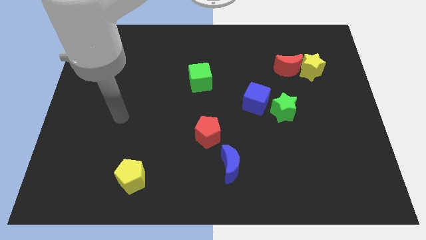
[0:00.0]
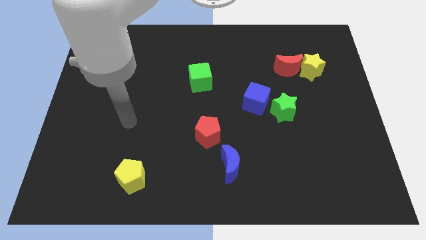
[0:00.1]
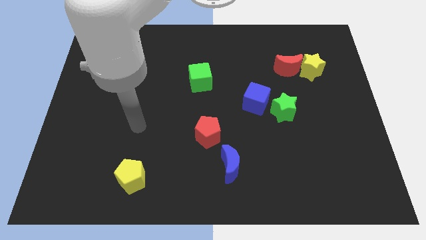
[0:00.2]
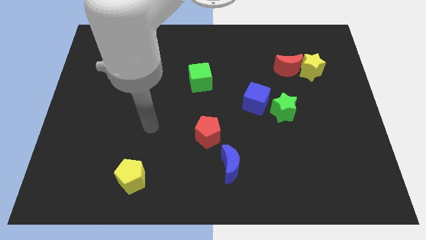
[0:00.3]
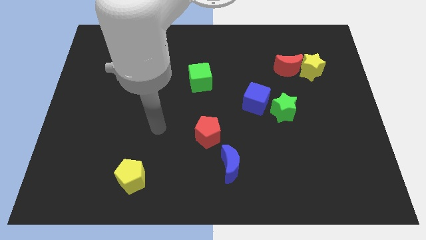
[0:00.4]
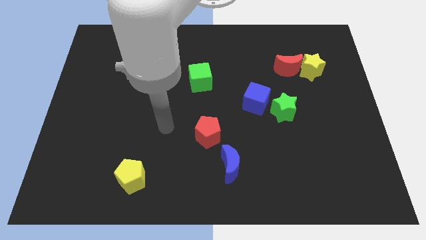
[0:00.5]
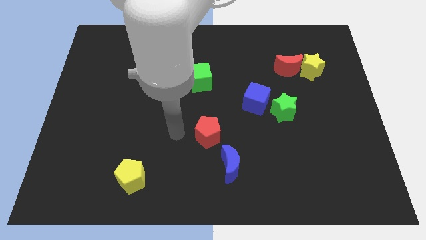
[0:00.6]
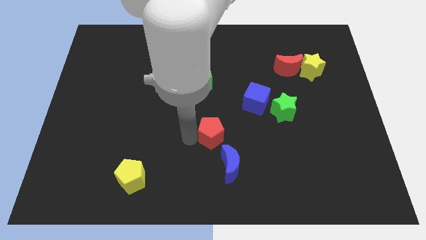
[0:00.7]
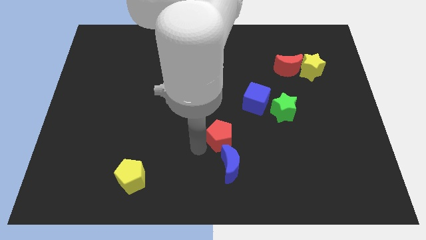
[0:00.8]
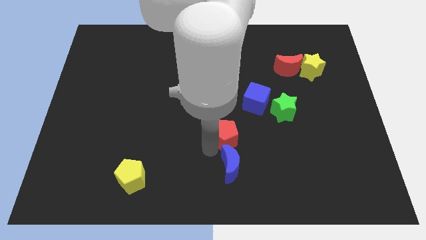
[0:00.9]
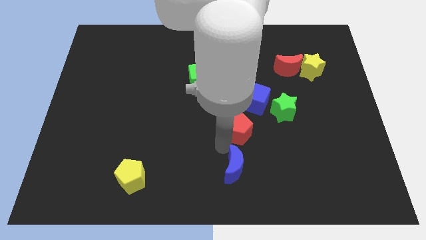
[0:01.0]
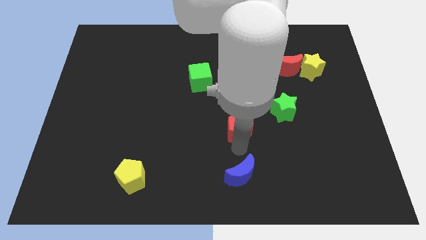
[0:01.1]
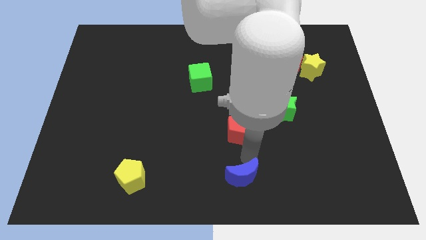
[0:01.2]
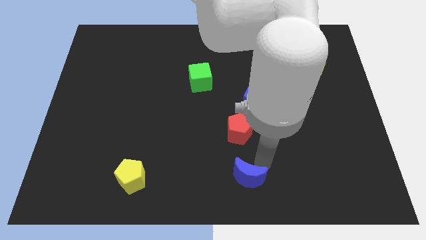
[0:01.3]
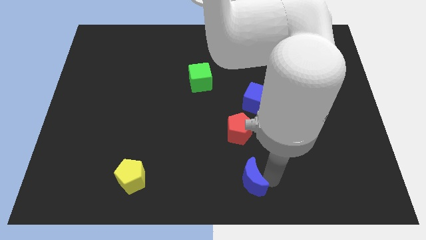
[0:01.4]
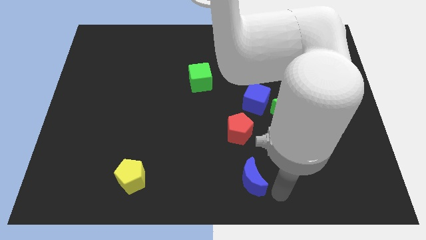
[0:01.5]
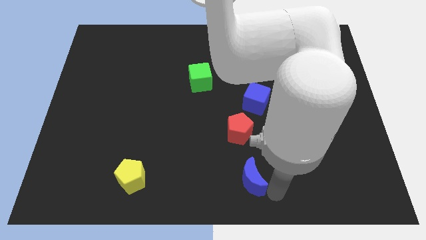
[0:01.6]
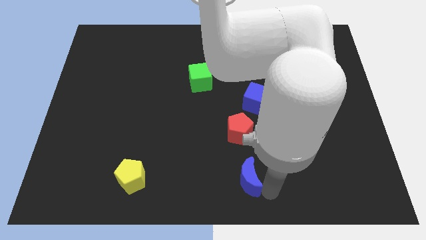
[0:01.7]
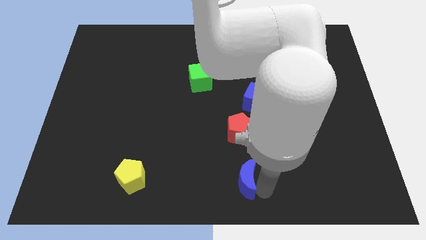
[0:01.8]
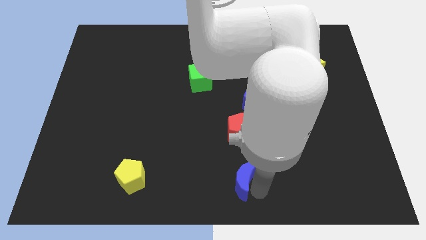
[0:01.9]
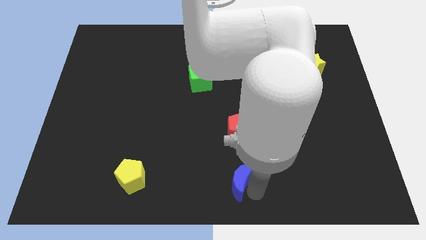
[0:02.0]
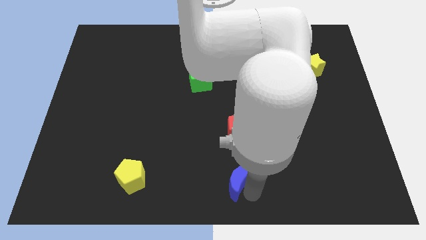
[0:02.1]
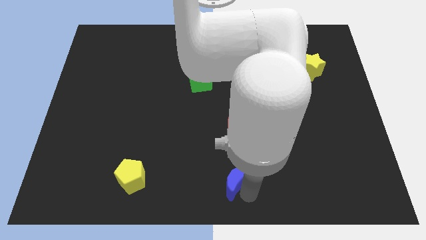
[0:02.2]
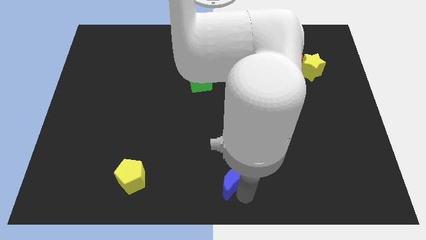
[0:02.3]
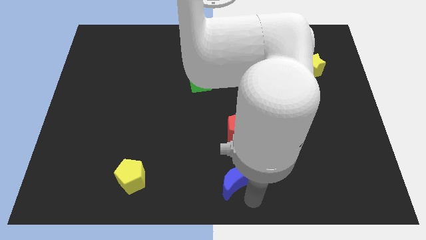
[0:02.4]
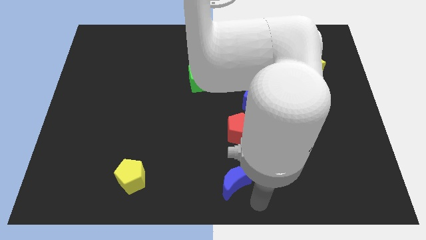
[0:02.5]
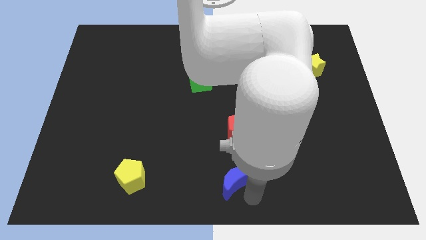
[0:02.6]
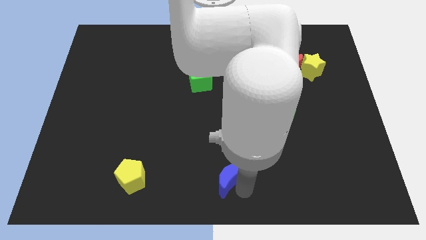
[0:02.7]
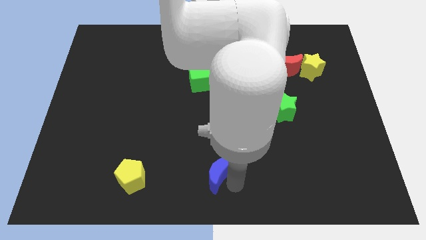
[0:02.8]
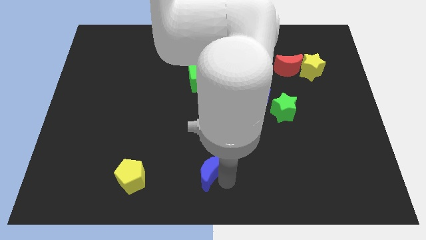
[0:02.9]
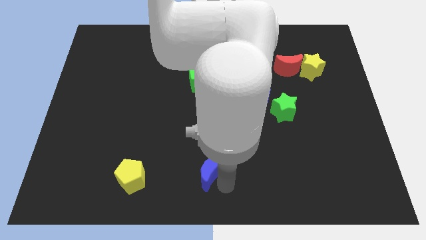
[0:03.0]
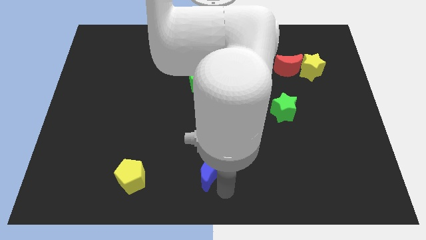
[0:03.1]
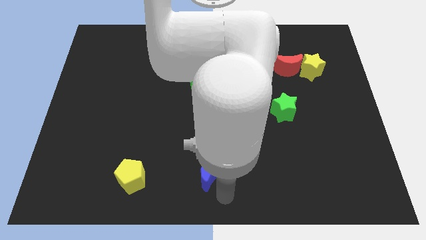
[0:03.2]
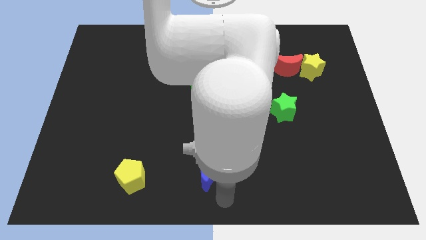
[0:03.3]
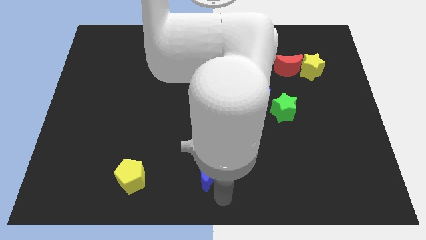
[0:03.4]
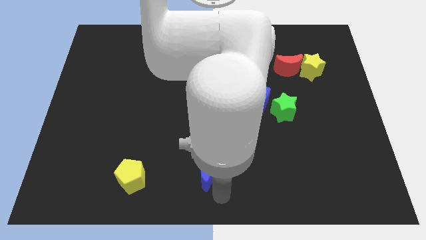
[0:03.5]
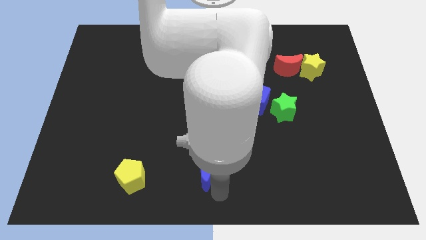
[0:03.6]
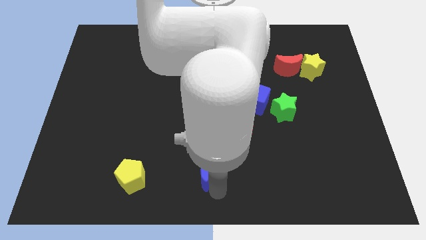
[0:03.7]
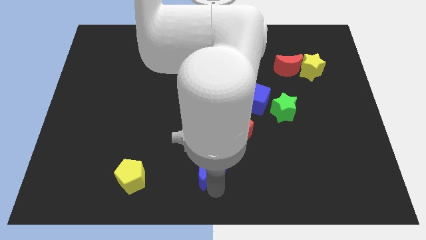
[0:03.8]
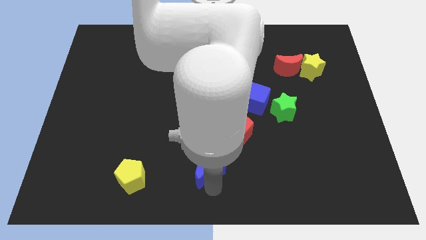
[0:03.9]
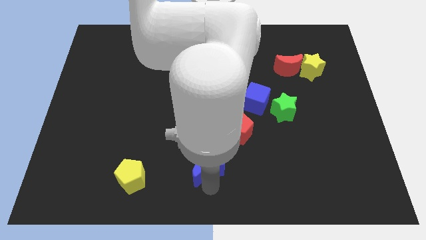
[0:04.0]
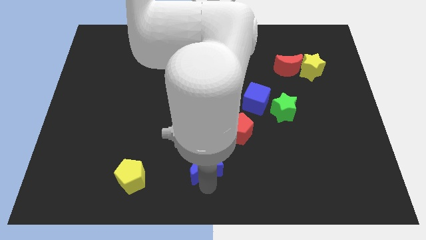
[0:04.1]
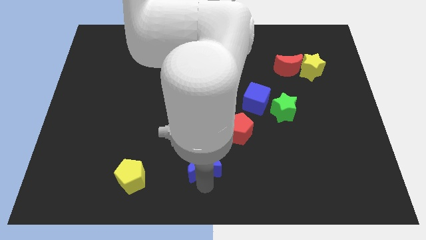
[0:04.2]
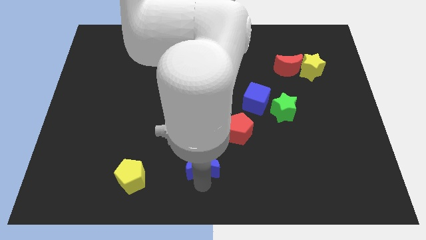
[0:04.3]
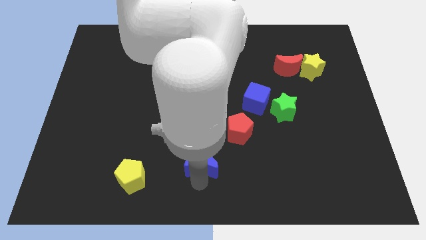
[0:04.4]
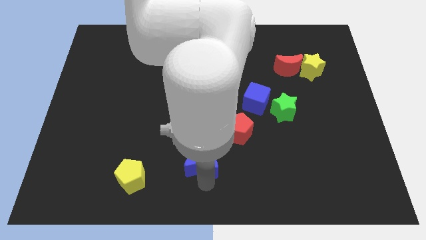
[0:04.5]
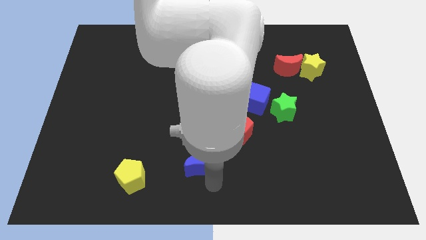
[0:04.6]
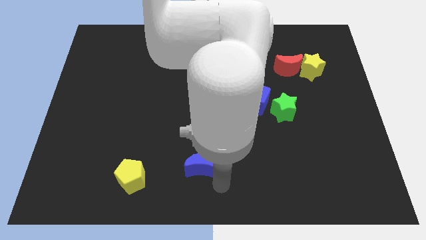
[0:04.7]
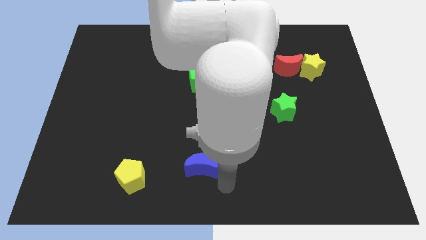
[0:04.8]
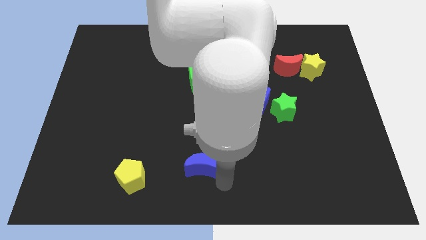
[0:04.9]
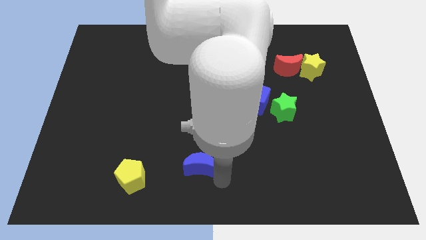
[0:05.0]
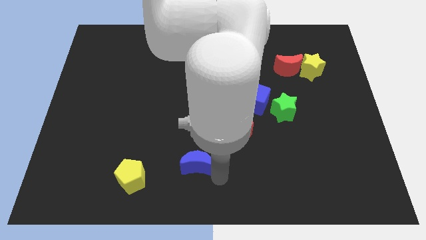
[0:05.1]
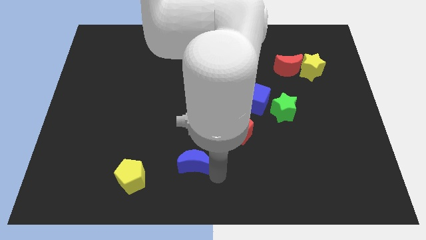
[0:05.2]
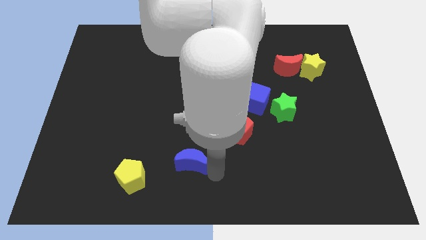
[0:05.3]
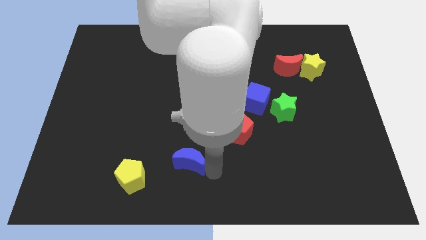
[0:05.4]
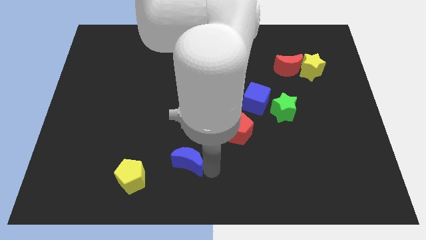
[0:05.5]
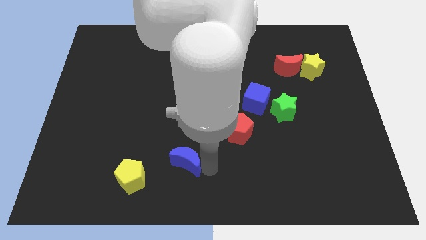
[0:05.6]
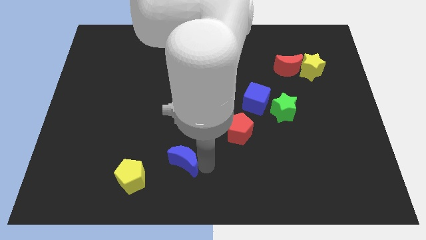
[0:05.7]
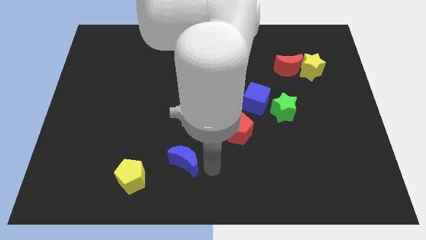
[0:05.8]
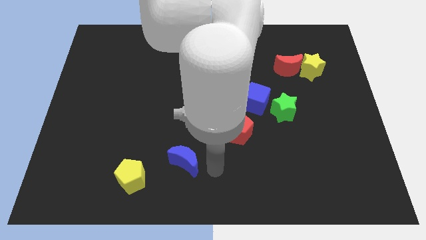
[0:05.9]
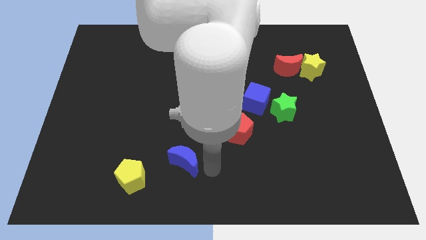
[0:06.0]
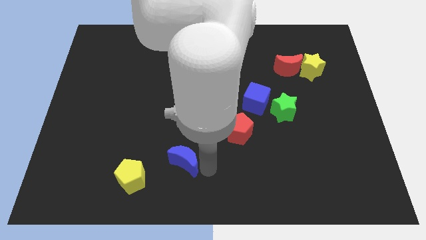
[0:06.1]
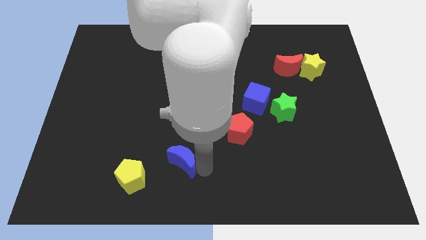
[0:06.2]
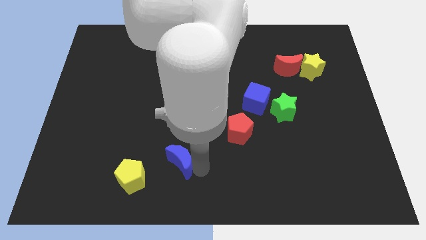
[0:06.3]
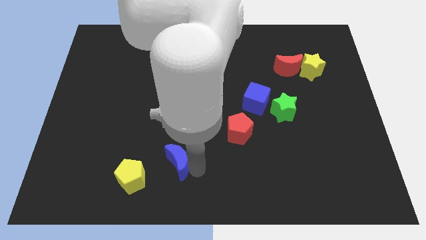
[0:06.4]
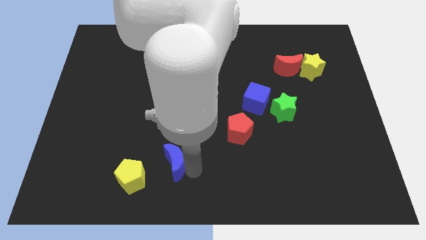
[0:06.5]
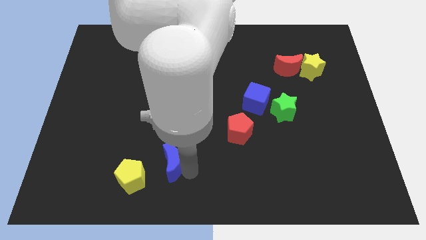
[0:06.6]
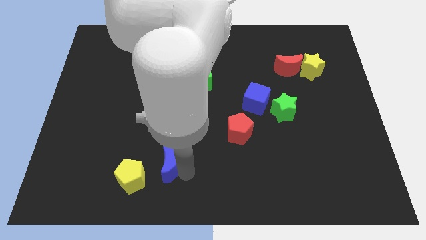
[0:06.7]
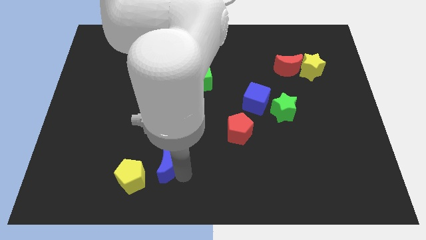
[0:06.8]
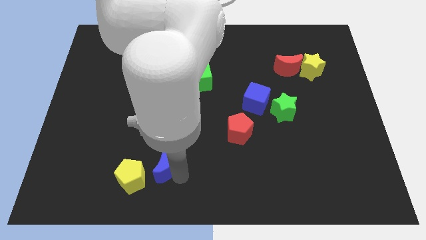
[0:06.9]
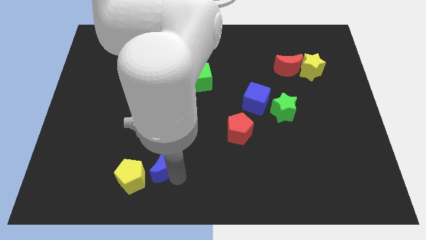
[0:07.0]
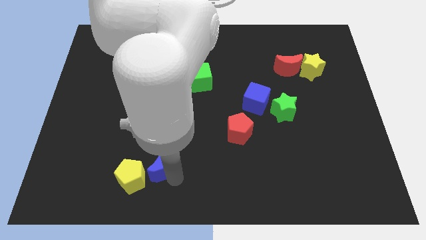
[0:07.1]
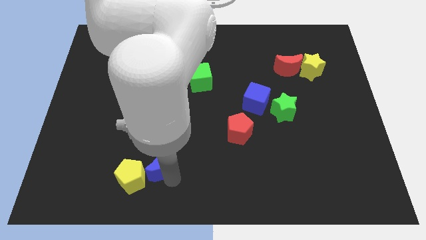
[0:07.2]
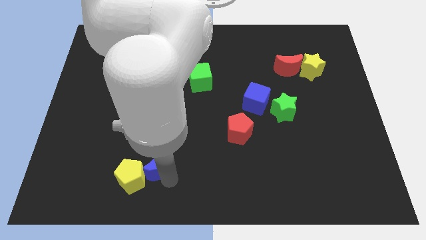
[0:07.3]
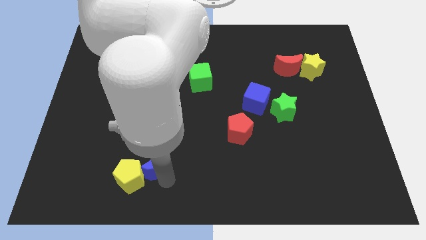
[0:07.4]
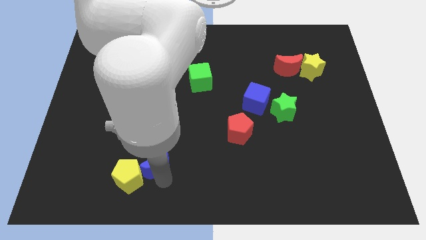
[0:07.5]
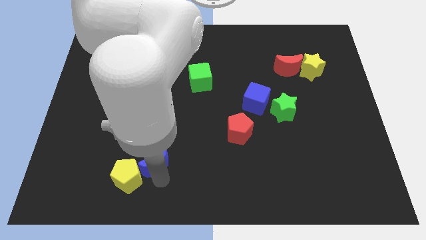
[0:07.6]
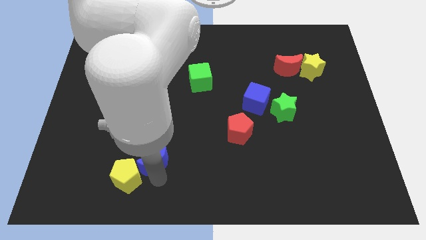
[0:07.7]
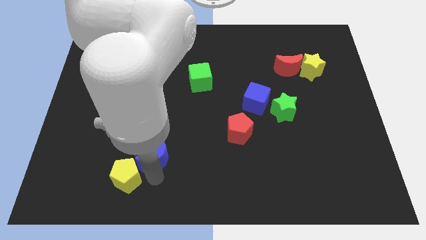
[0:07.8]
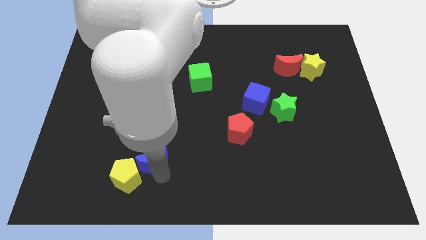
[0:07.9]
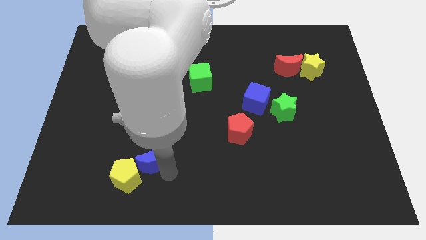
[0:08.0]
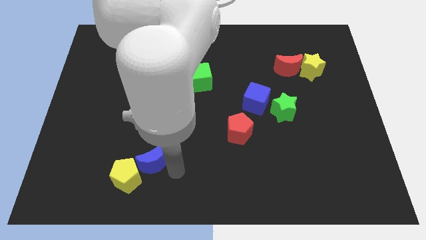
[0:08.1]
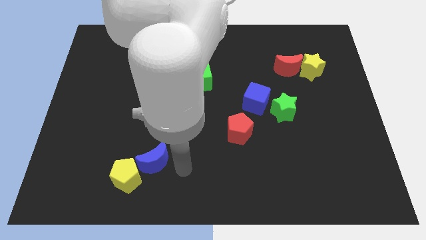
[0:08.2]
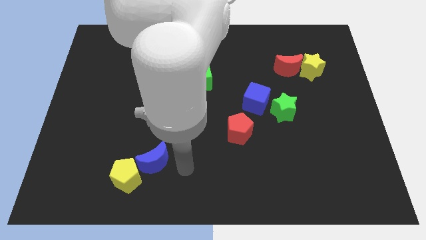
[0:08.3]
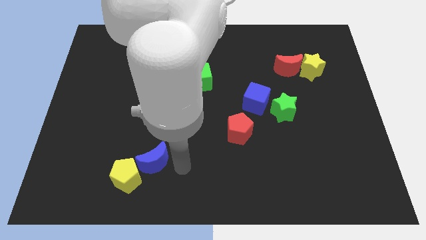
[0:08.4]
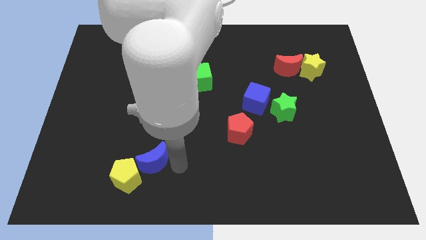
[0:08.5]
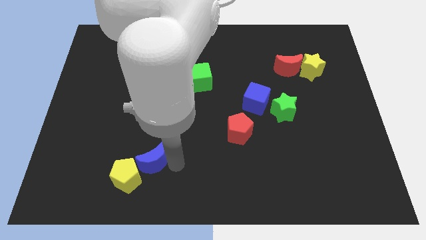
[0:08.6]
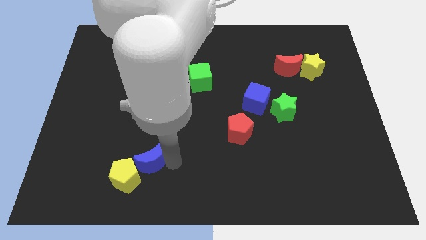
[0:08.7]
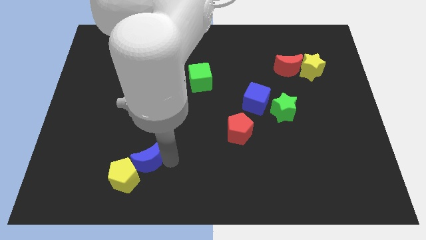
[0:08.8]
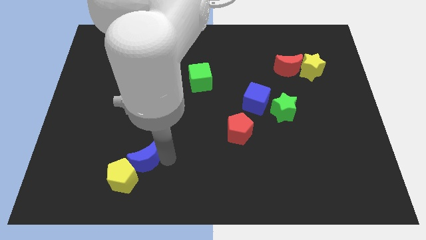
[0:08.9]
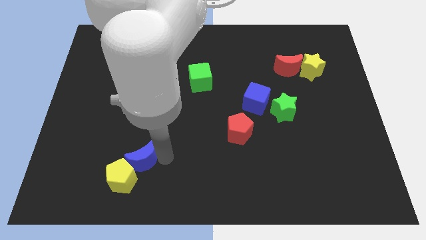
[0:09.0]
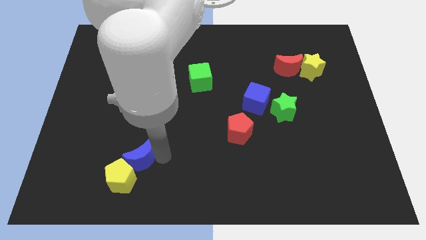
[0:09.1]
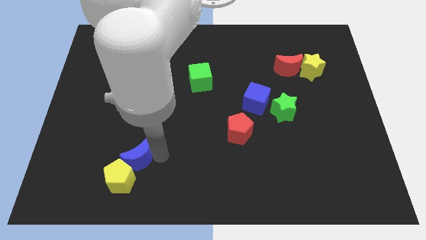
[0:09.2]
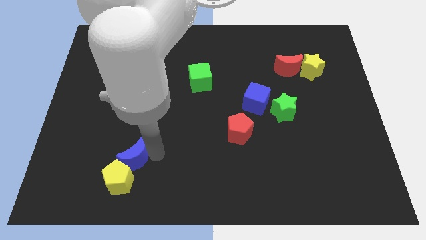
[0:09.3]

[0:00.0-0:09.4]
move the blue moon to the left
